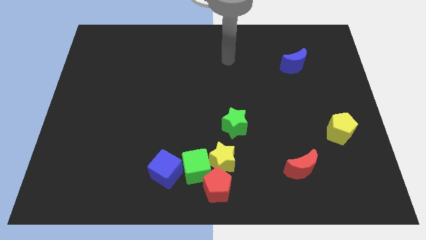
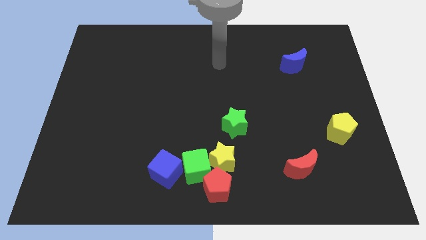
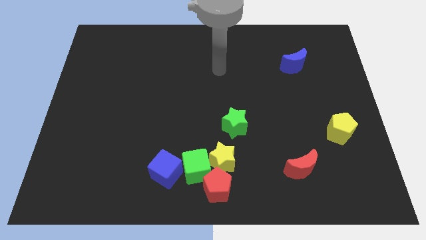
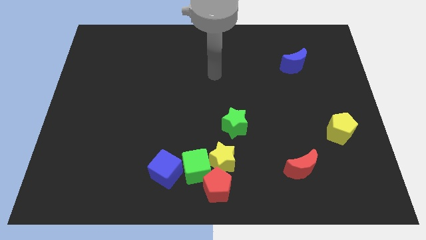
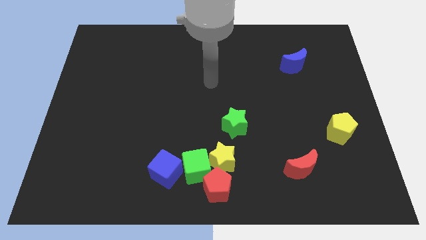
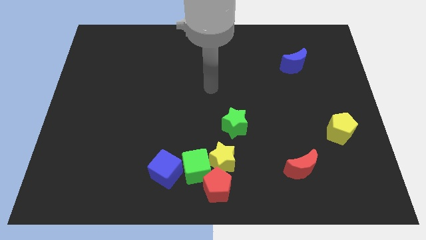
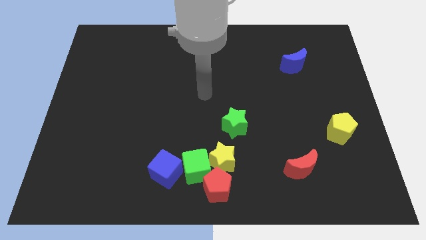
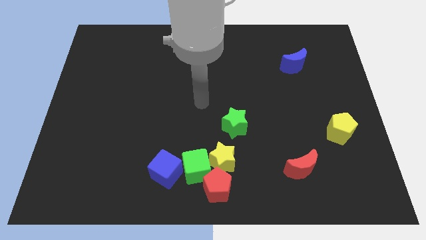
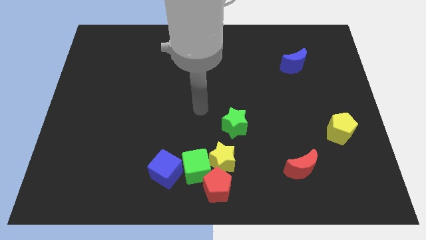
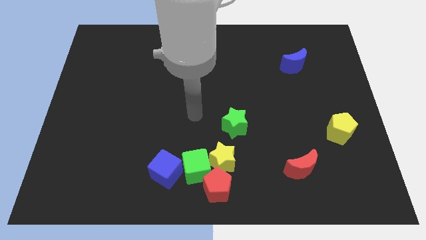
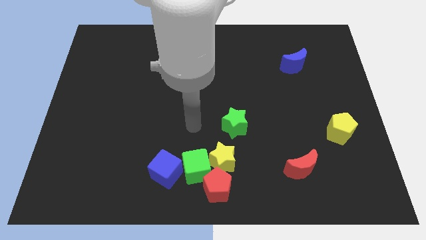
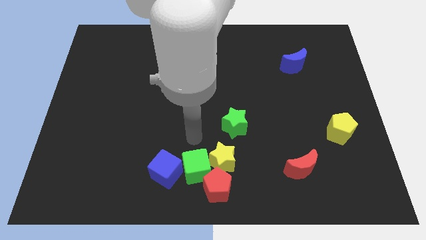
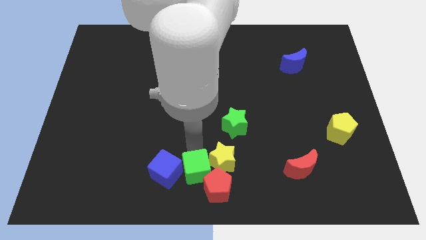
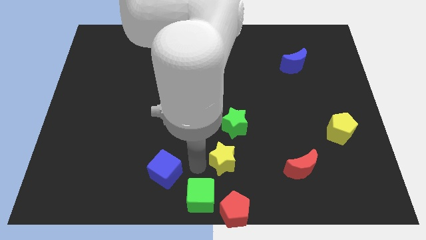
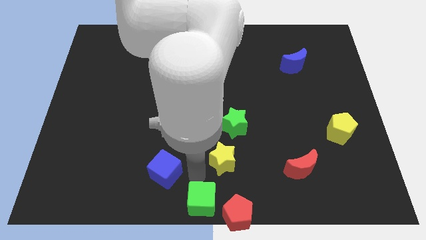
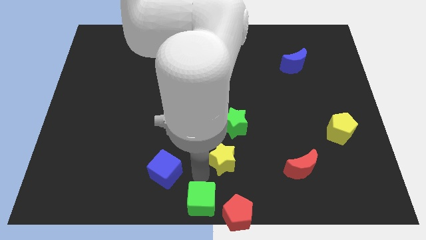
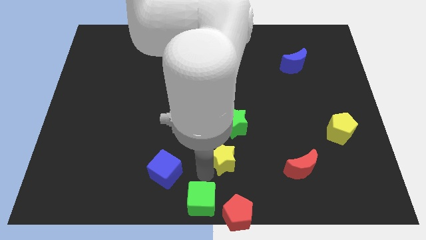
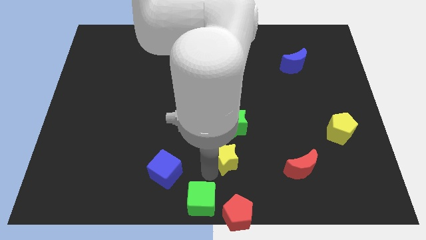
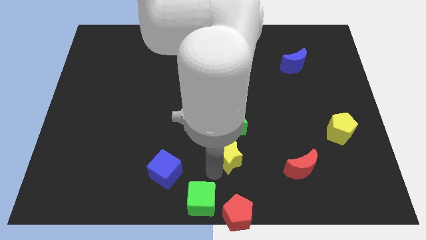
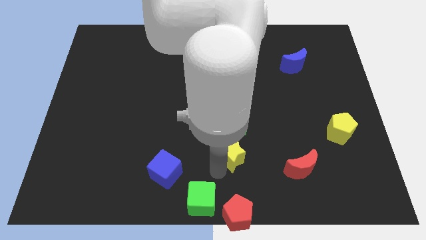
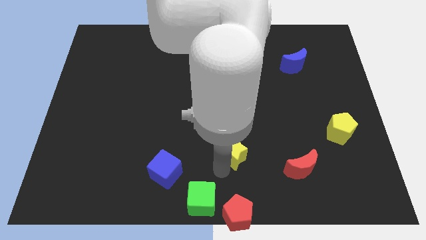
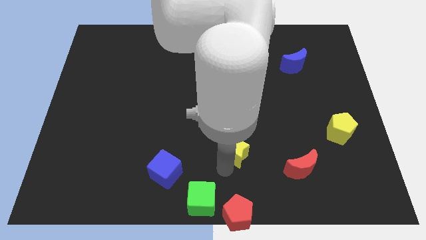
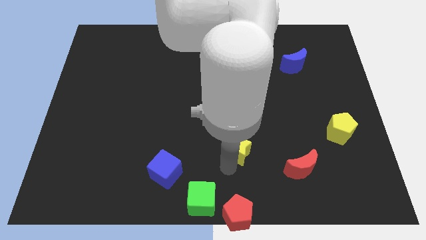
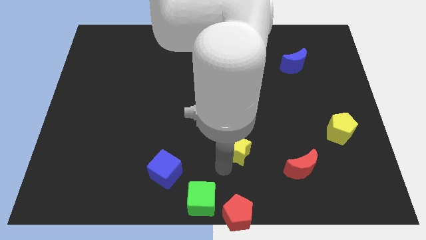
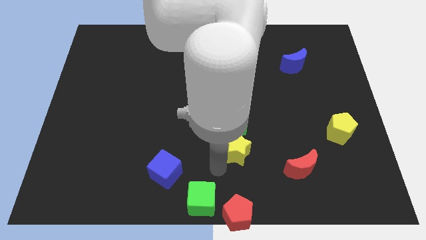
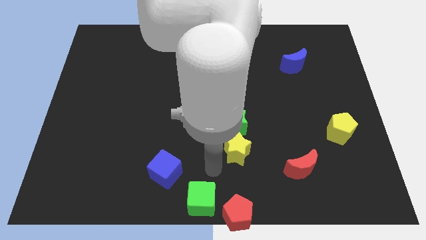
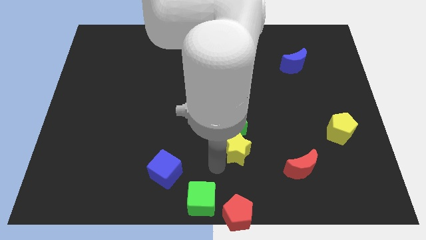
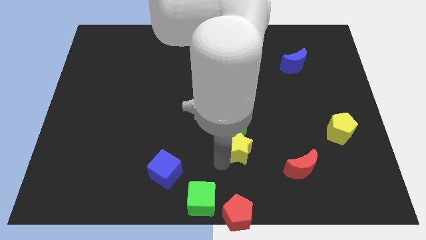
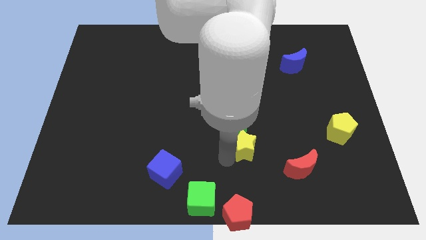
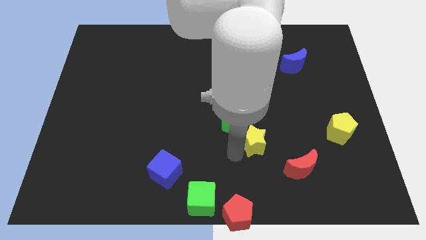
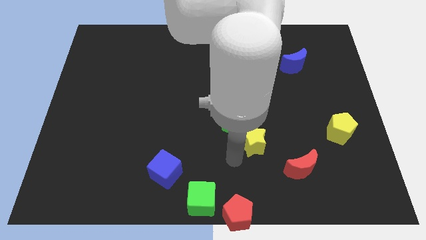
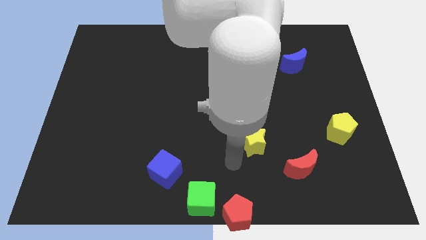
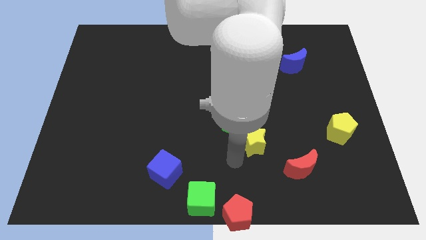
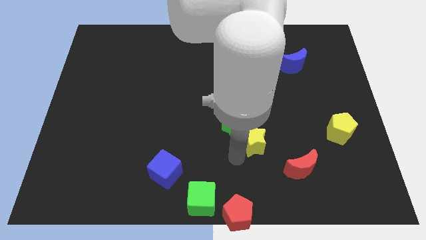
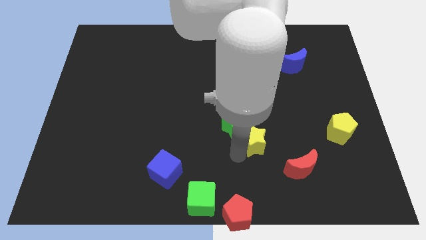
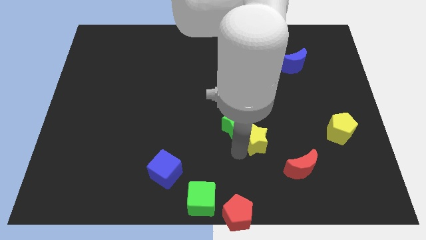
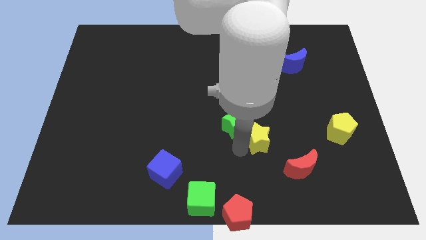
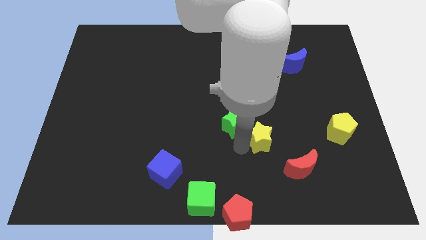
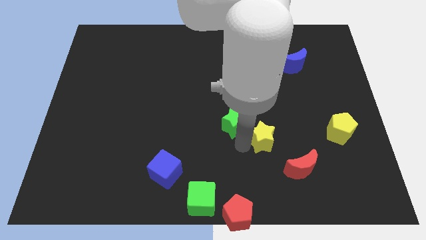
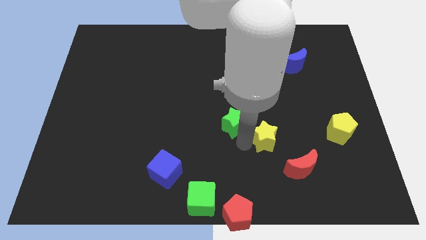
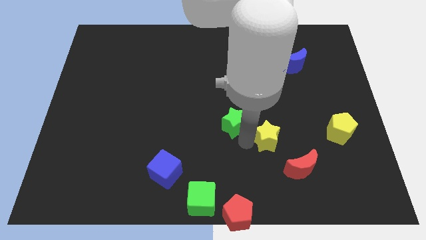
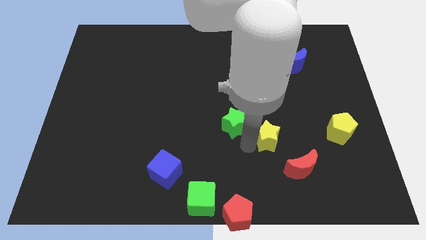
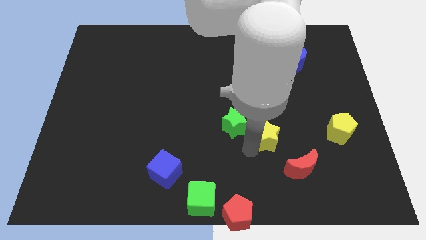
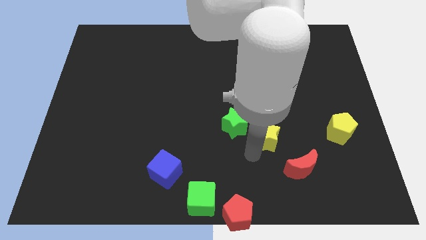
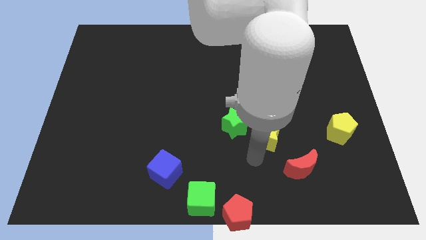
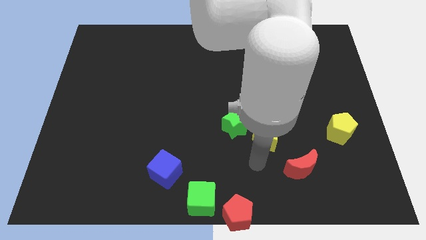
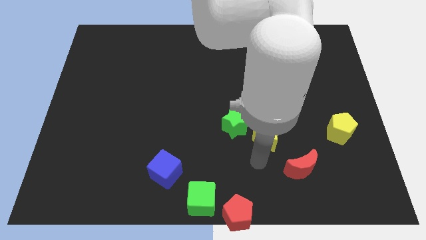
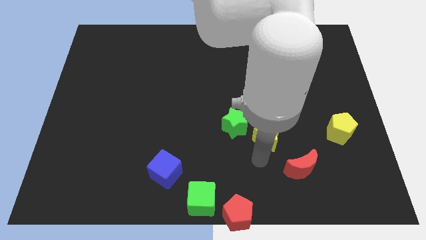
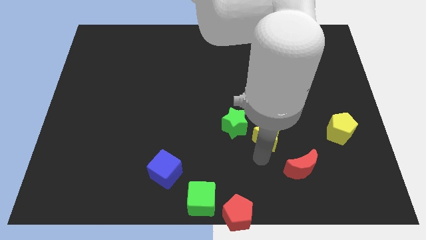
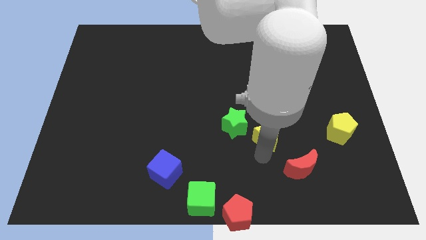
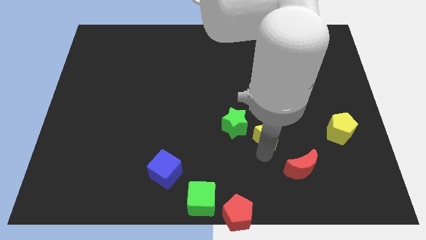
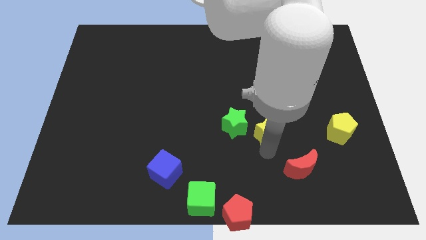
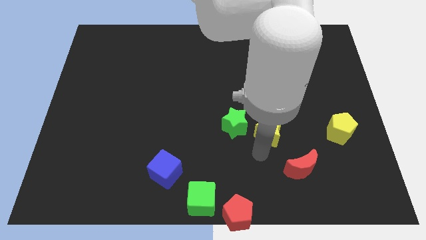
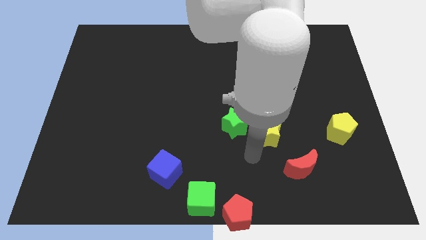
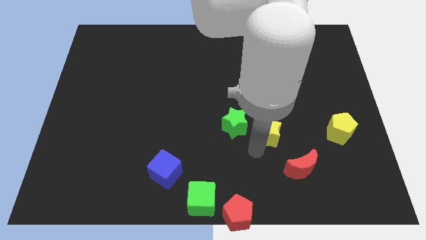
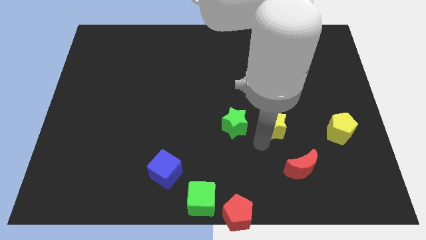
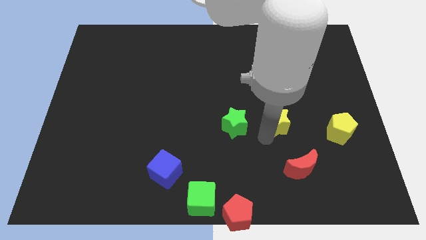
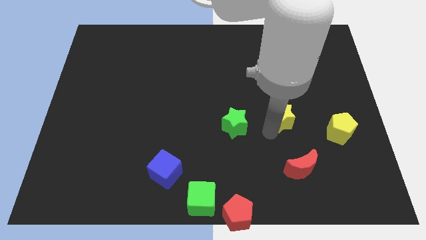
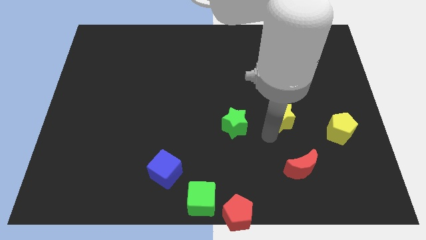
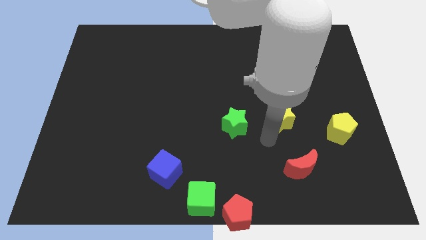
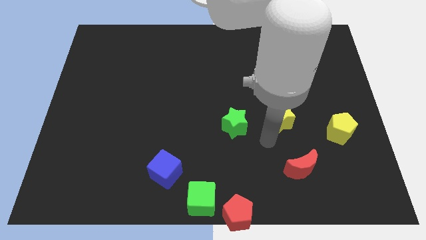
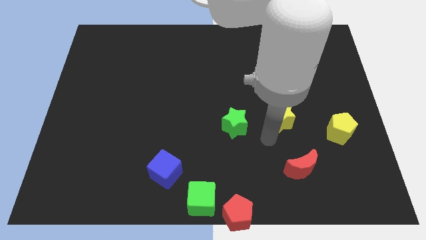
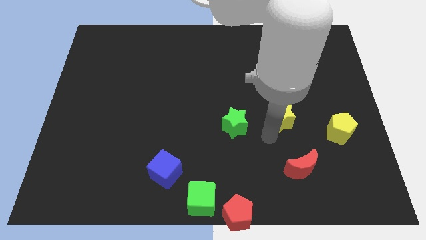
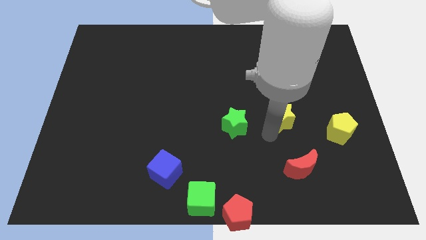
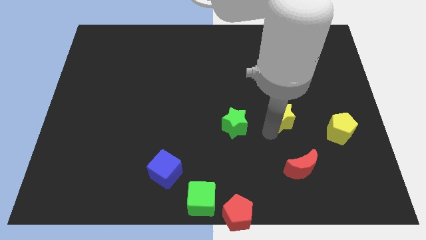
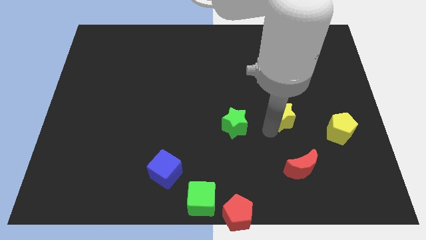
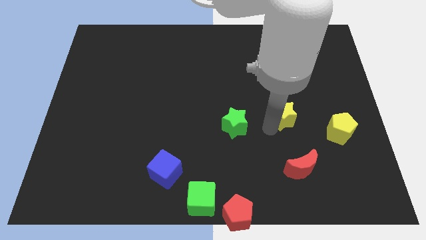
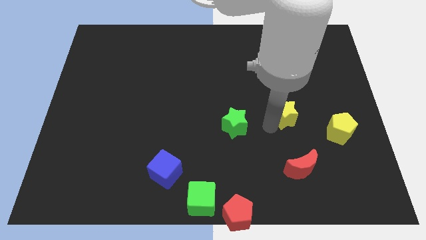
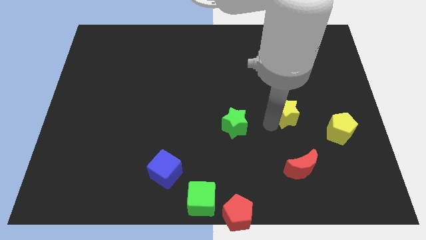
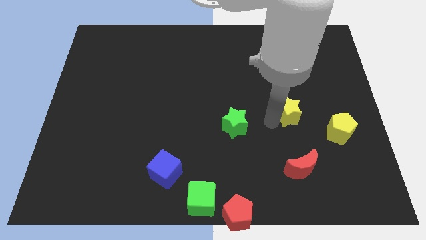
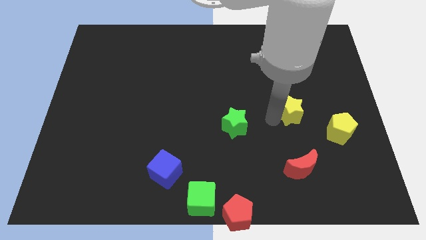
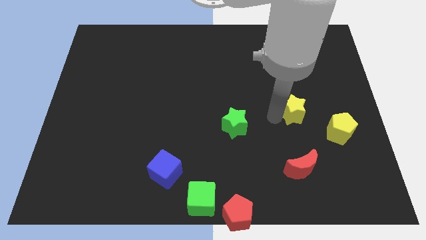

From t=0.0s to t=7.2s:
put the yellow star to the bottom side of the blue moon
